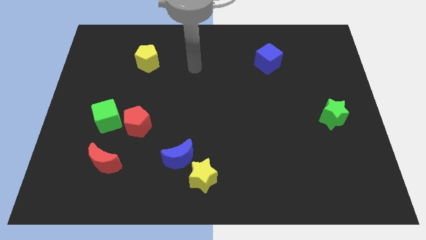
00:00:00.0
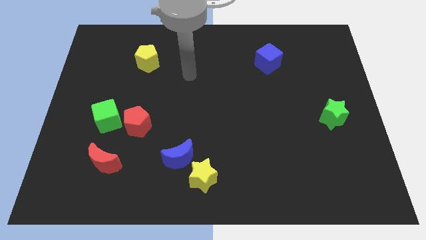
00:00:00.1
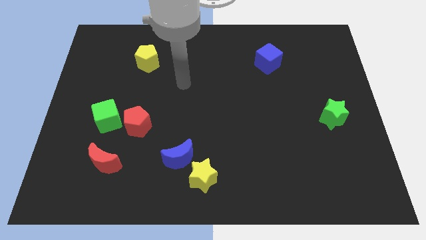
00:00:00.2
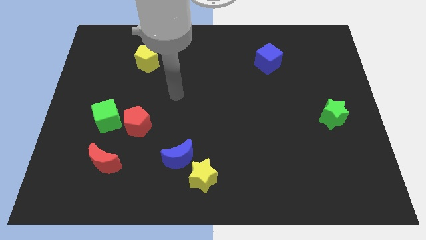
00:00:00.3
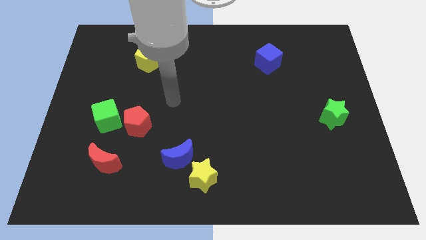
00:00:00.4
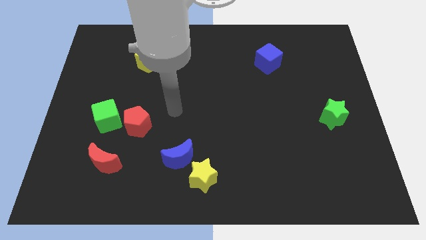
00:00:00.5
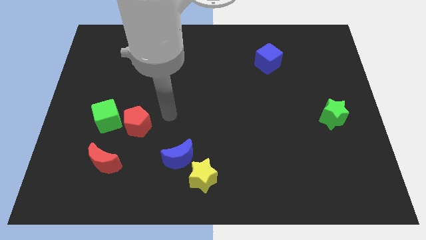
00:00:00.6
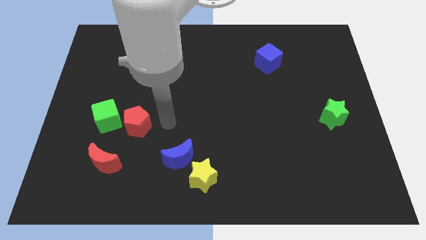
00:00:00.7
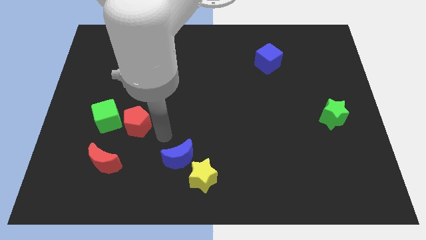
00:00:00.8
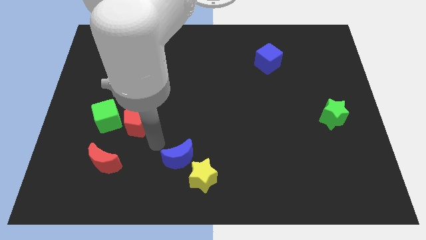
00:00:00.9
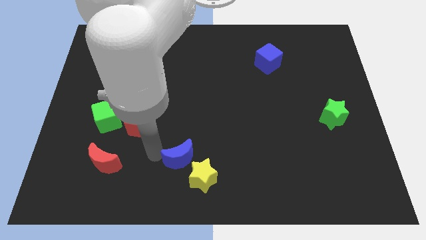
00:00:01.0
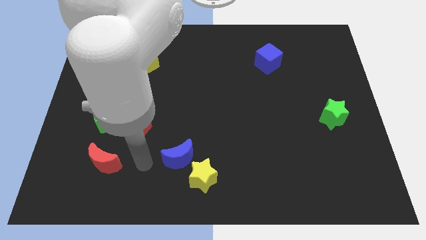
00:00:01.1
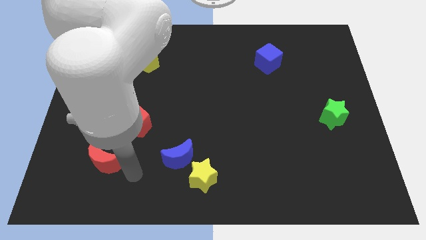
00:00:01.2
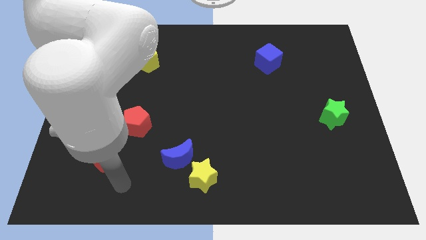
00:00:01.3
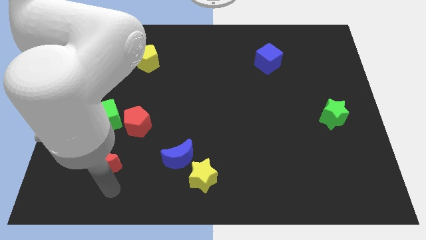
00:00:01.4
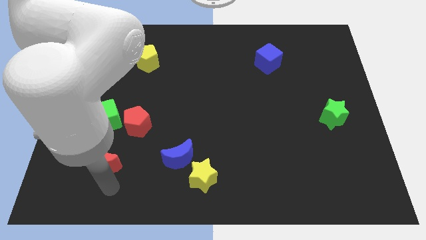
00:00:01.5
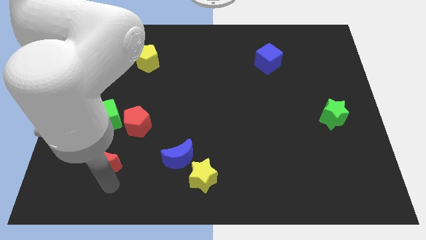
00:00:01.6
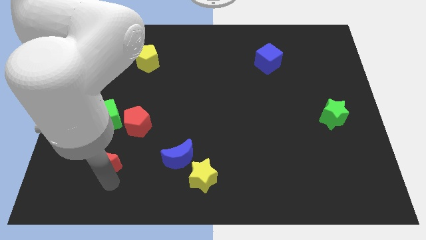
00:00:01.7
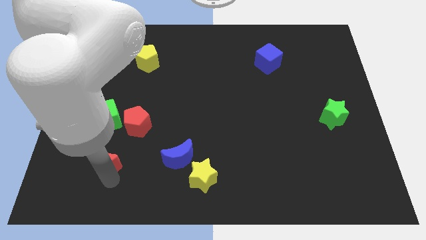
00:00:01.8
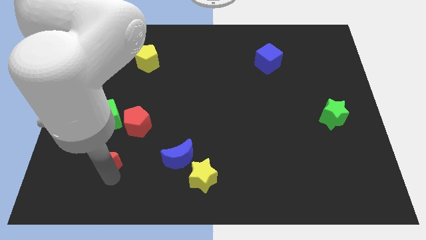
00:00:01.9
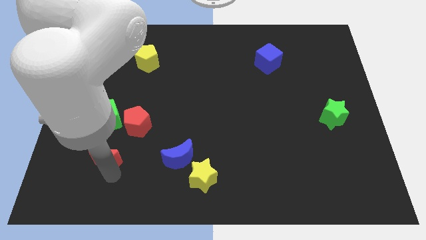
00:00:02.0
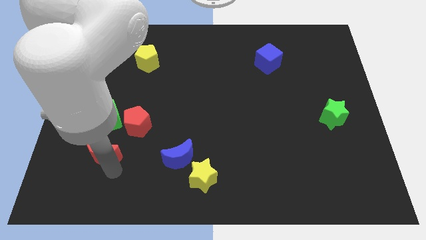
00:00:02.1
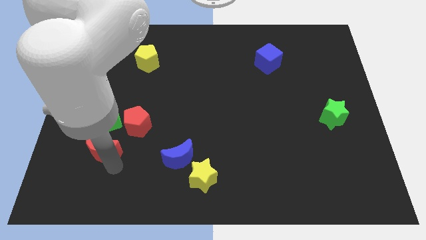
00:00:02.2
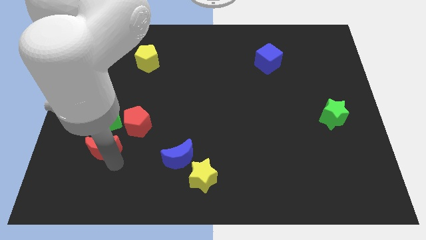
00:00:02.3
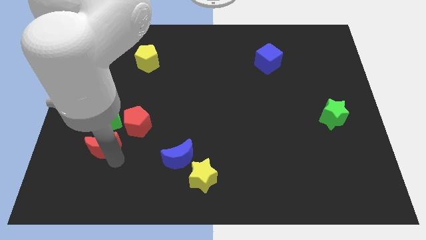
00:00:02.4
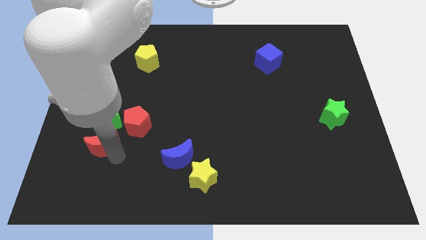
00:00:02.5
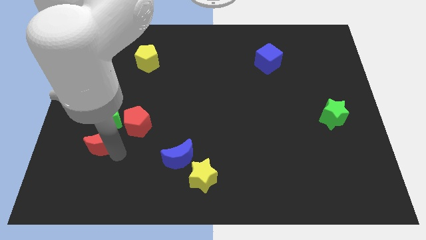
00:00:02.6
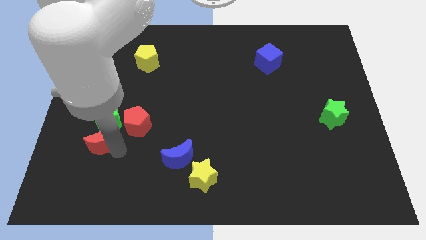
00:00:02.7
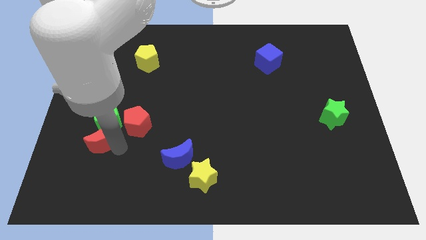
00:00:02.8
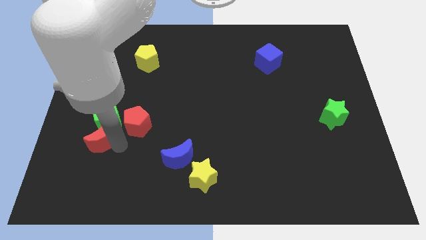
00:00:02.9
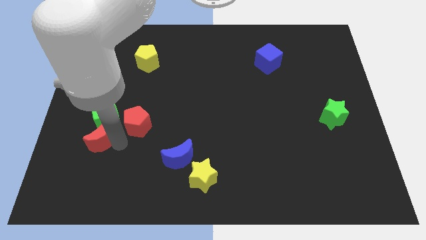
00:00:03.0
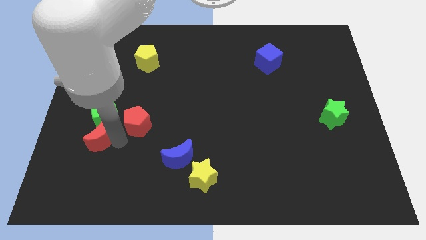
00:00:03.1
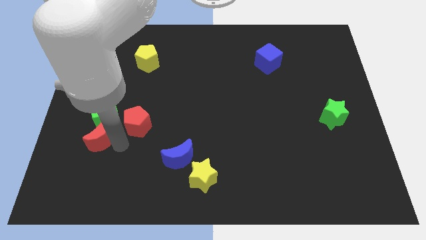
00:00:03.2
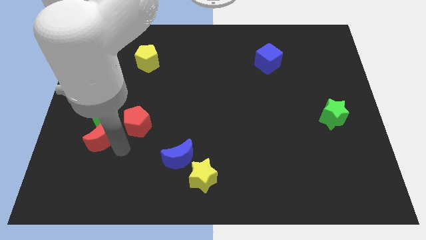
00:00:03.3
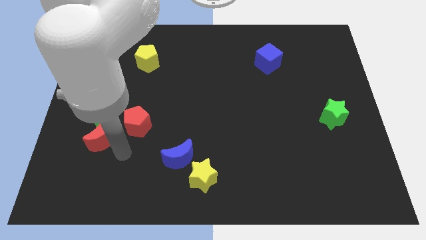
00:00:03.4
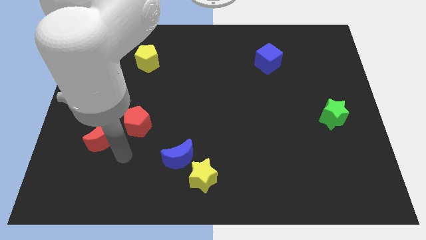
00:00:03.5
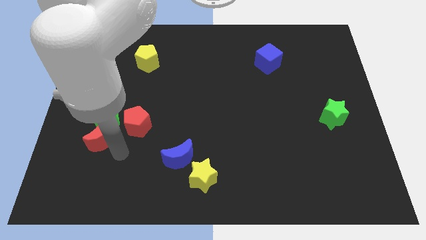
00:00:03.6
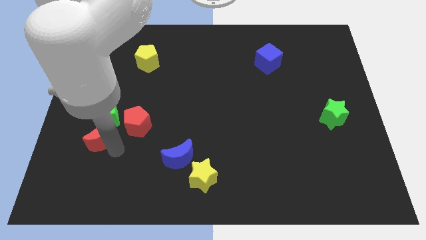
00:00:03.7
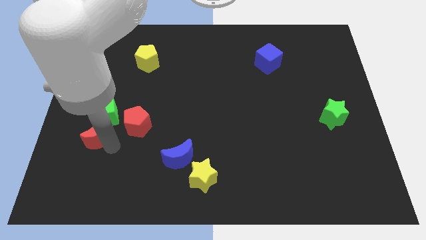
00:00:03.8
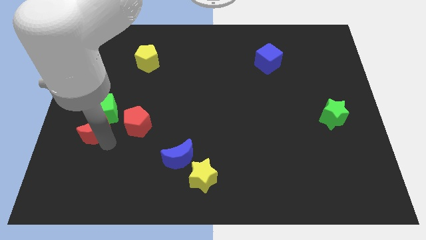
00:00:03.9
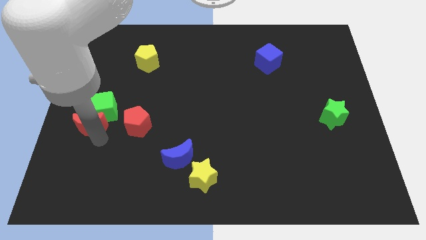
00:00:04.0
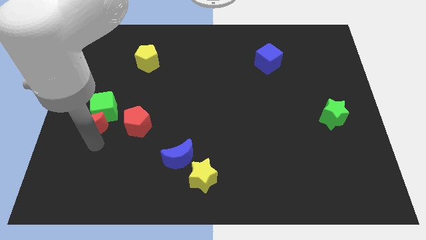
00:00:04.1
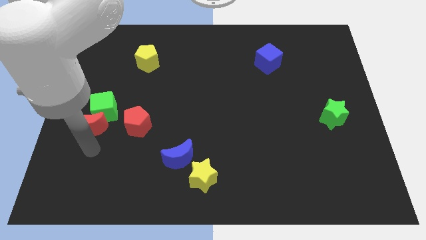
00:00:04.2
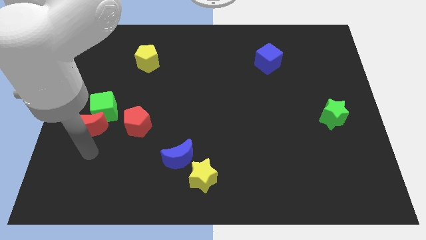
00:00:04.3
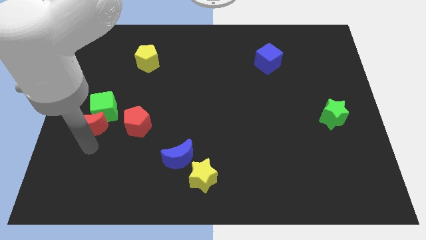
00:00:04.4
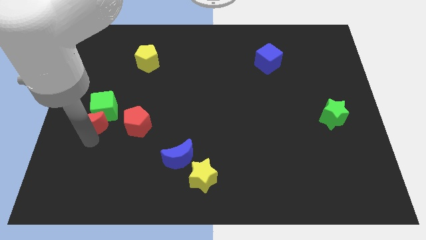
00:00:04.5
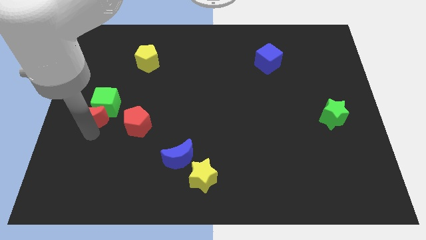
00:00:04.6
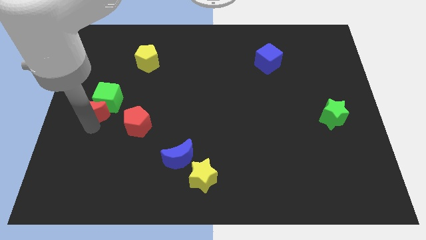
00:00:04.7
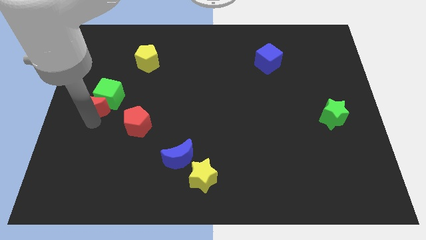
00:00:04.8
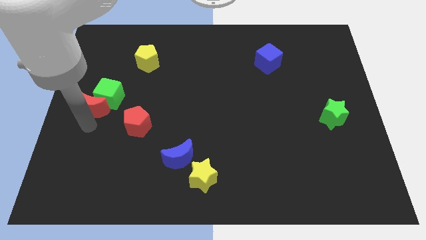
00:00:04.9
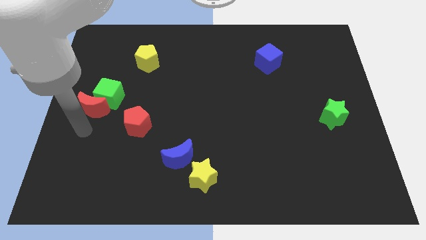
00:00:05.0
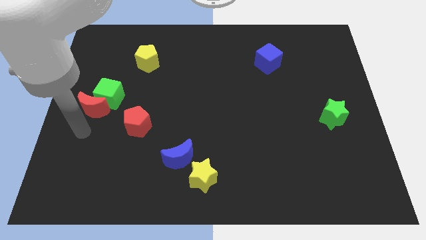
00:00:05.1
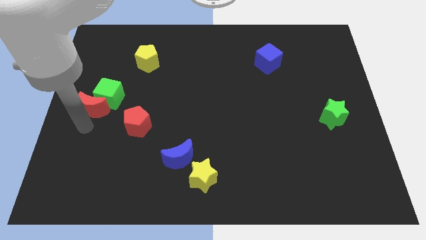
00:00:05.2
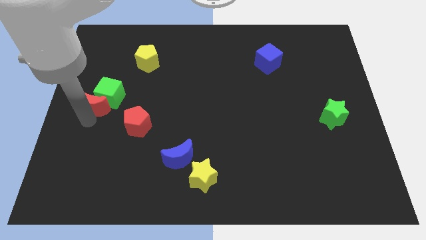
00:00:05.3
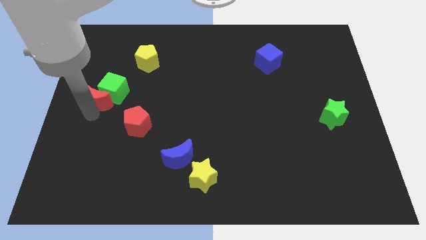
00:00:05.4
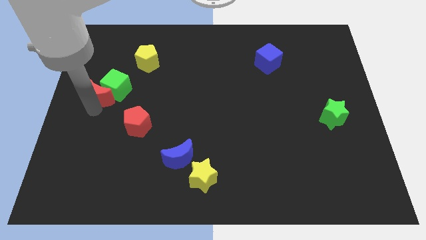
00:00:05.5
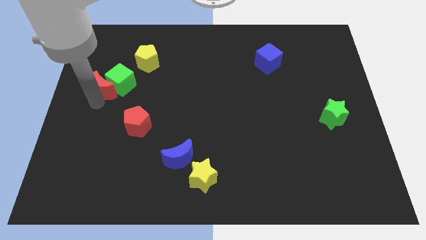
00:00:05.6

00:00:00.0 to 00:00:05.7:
slide the red moon up

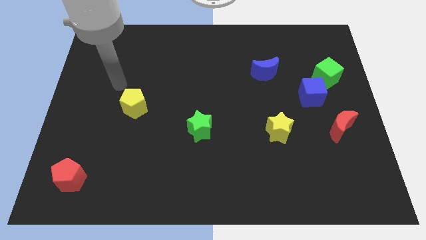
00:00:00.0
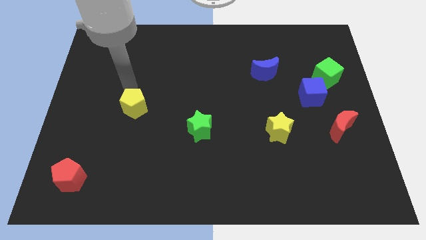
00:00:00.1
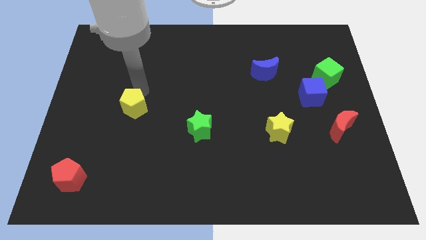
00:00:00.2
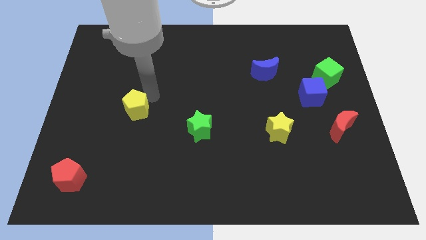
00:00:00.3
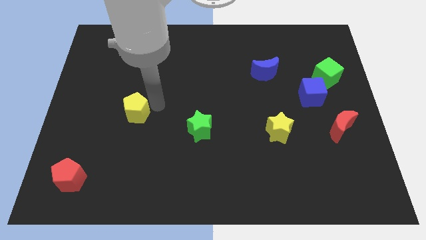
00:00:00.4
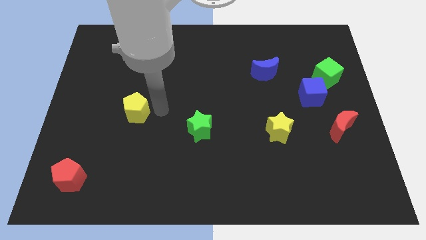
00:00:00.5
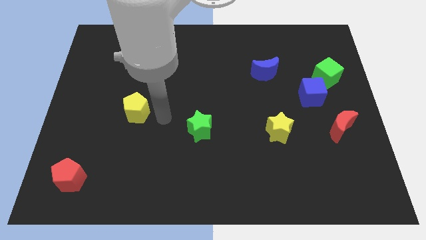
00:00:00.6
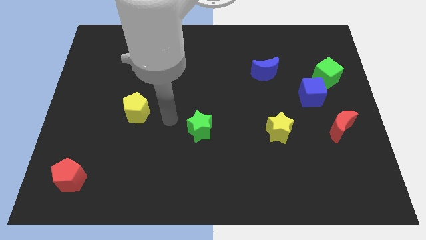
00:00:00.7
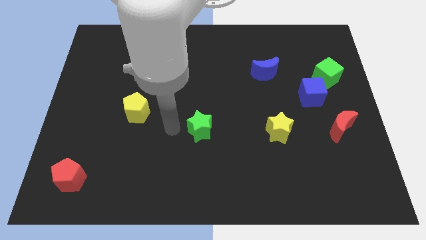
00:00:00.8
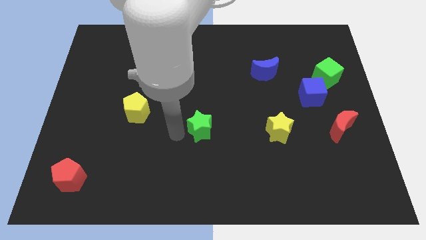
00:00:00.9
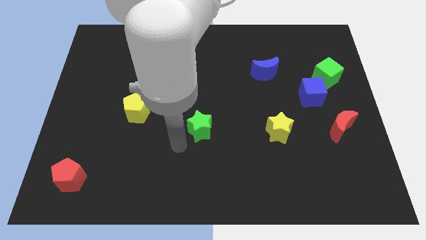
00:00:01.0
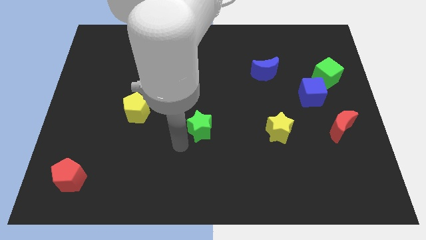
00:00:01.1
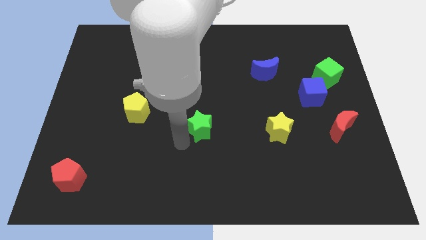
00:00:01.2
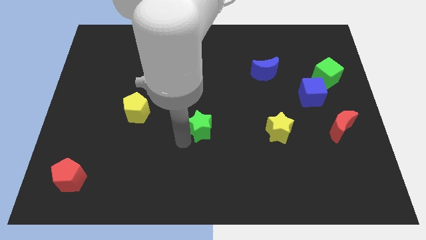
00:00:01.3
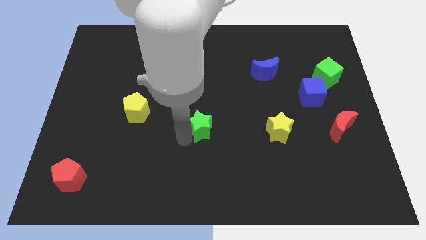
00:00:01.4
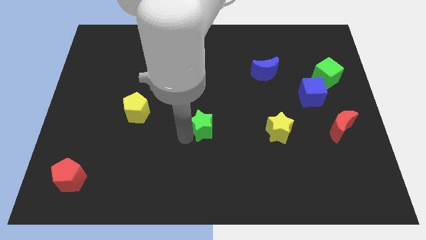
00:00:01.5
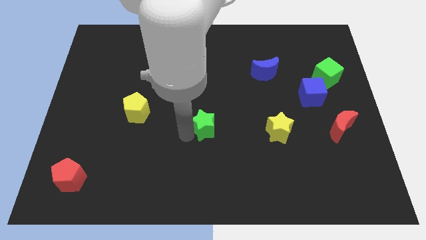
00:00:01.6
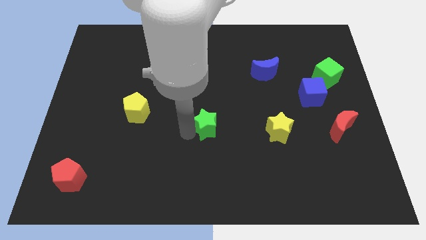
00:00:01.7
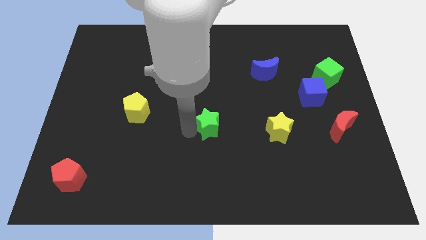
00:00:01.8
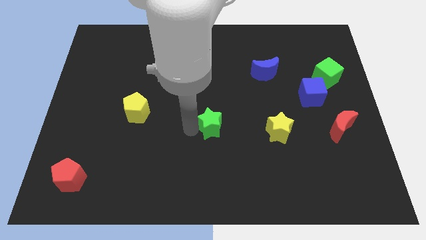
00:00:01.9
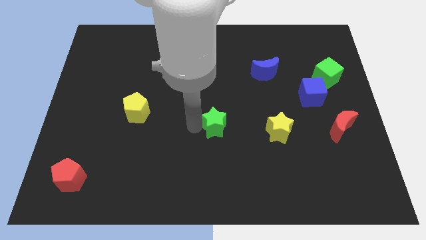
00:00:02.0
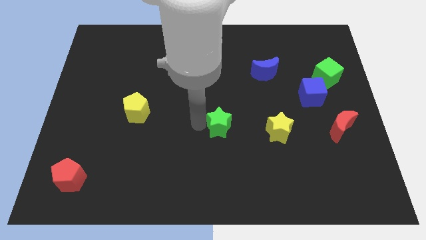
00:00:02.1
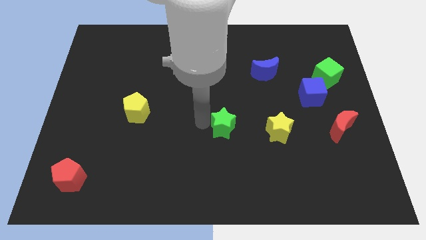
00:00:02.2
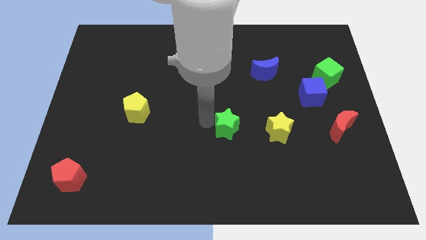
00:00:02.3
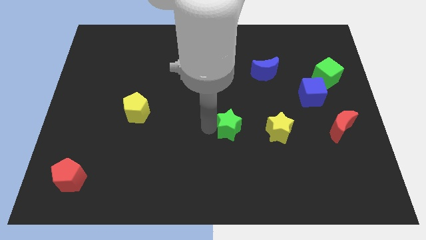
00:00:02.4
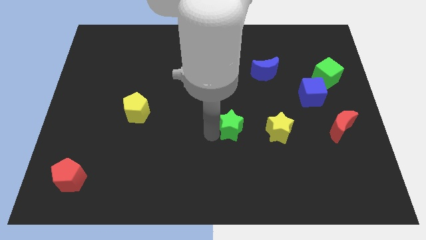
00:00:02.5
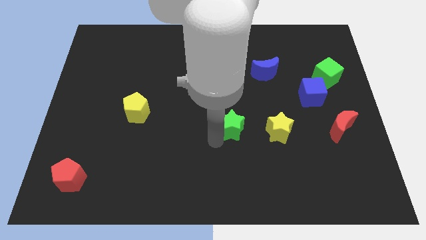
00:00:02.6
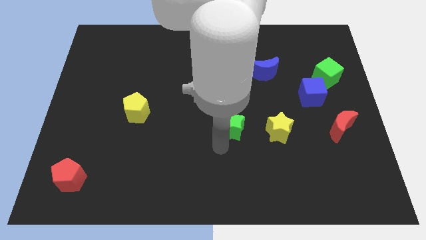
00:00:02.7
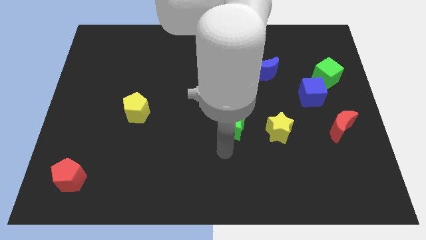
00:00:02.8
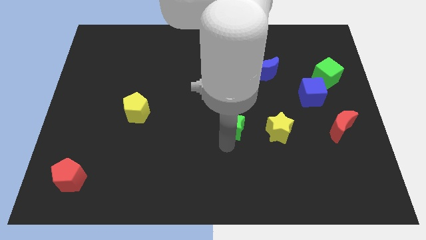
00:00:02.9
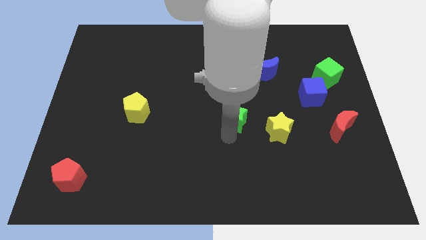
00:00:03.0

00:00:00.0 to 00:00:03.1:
push the green star somewhat upwards and then right
